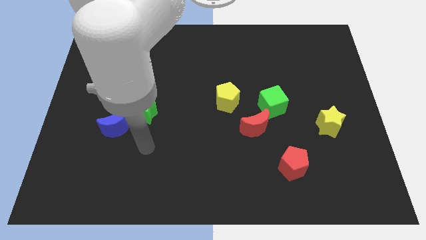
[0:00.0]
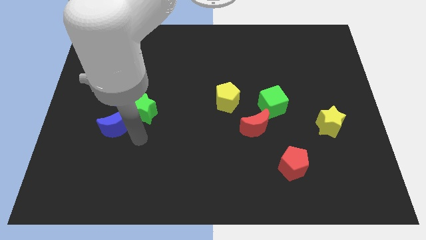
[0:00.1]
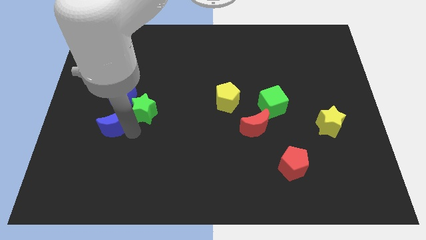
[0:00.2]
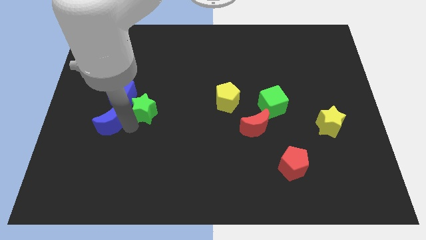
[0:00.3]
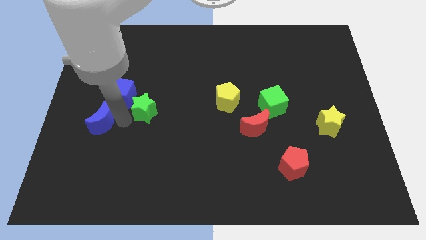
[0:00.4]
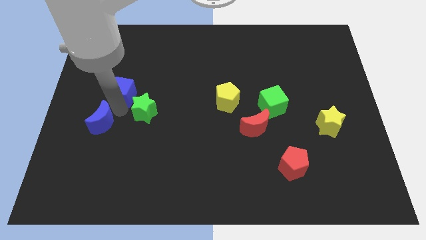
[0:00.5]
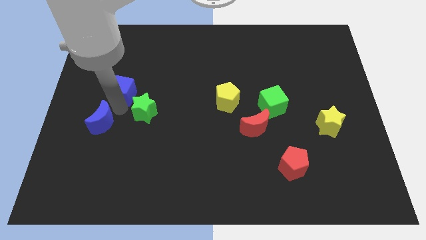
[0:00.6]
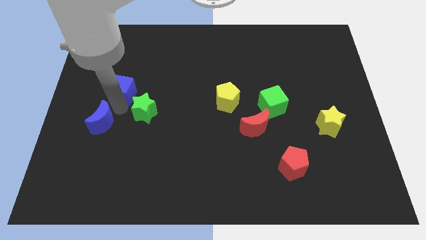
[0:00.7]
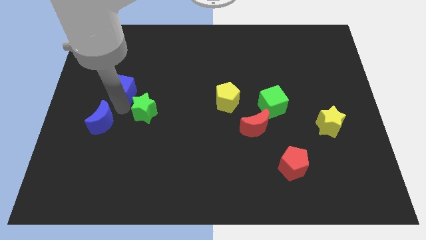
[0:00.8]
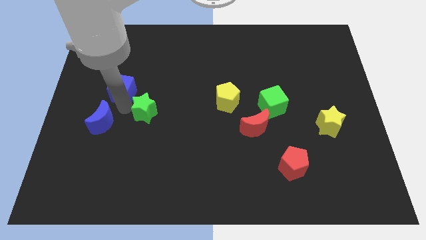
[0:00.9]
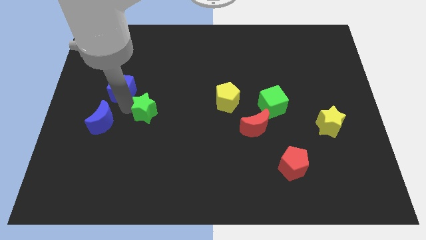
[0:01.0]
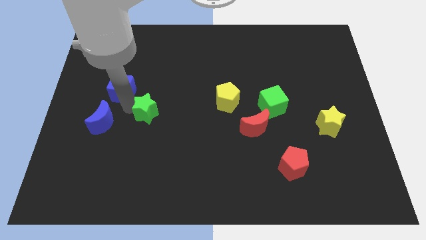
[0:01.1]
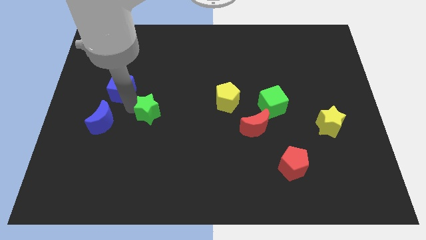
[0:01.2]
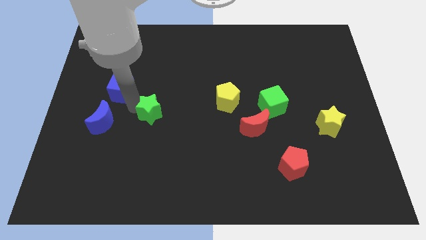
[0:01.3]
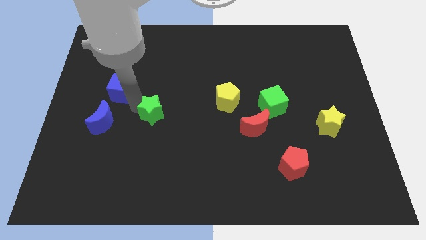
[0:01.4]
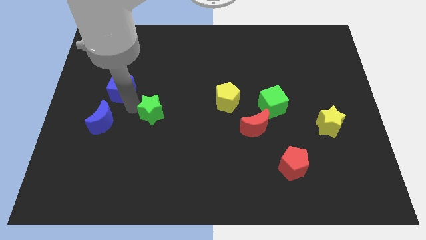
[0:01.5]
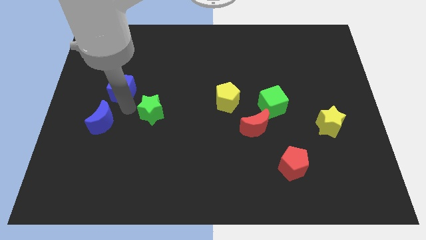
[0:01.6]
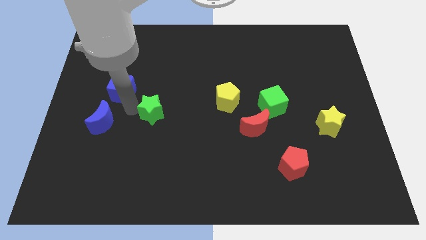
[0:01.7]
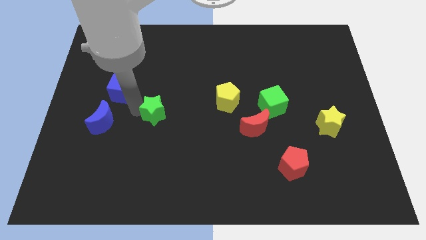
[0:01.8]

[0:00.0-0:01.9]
pull the green star apart from the blue moon and blue cube

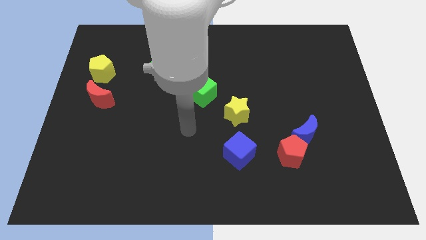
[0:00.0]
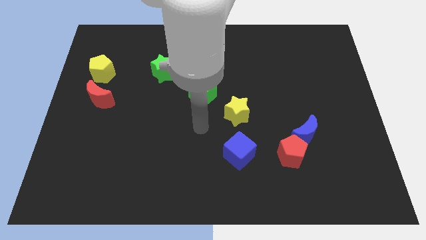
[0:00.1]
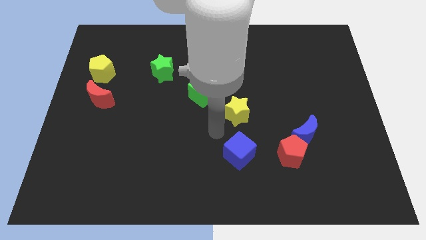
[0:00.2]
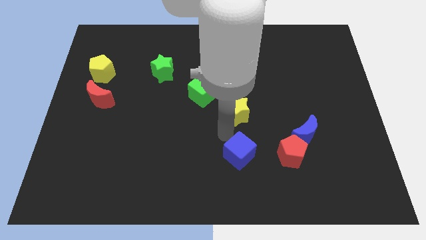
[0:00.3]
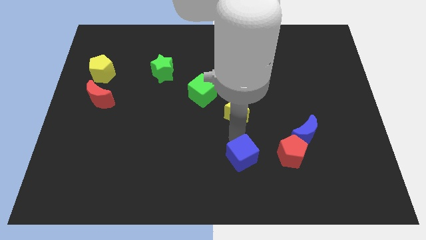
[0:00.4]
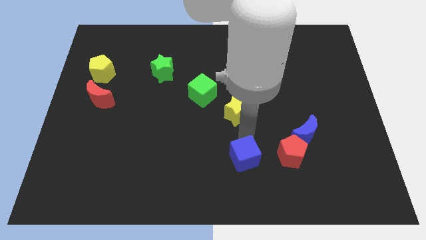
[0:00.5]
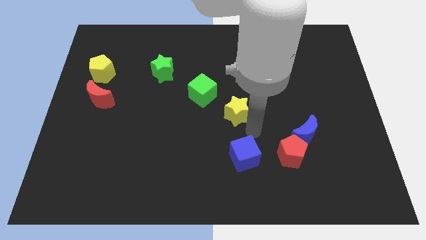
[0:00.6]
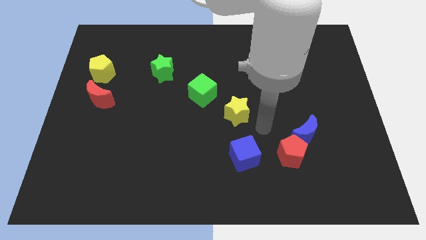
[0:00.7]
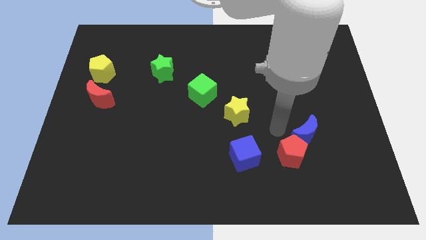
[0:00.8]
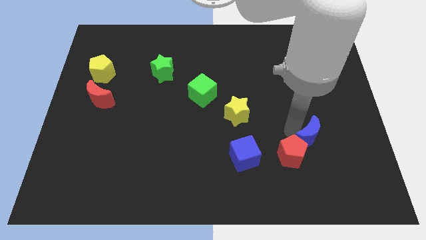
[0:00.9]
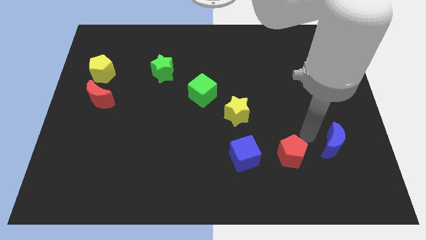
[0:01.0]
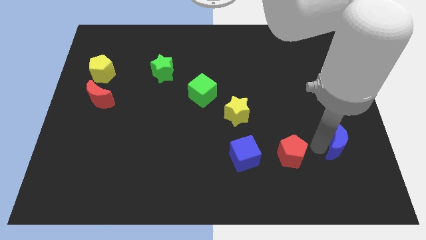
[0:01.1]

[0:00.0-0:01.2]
move the red pentagon away from the blue moon

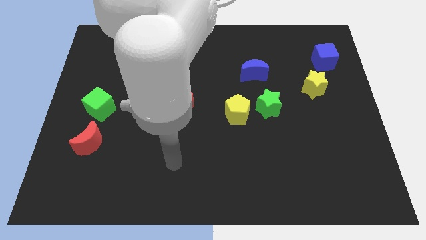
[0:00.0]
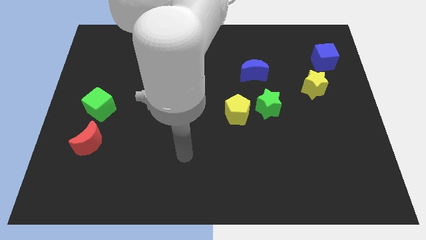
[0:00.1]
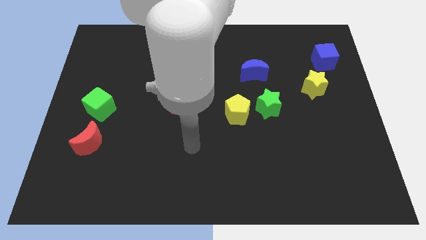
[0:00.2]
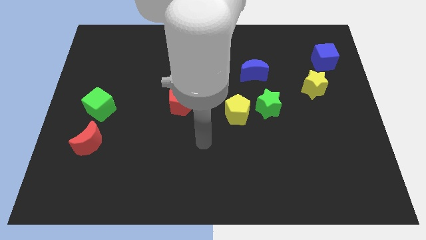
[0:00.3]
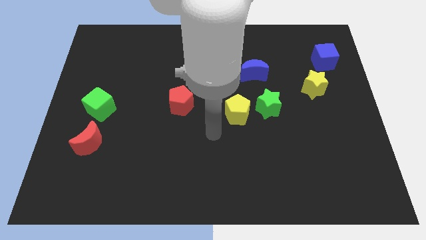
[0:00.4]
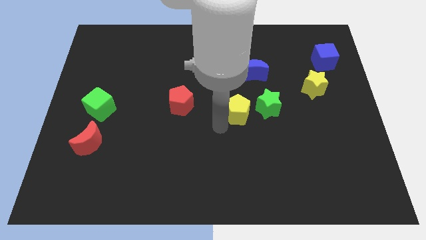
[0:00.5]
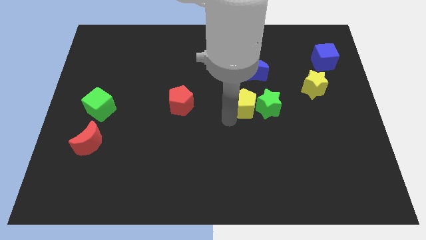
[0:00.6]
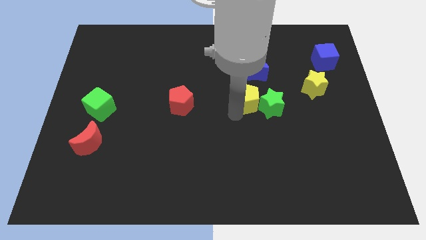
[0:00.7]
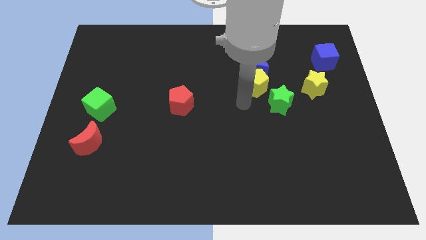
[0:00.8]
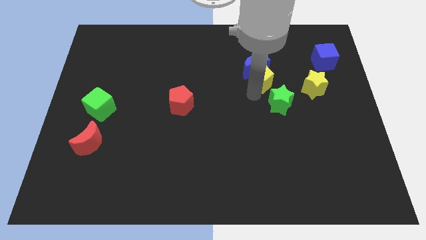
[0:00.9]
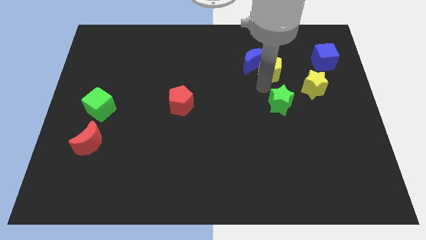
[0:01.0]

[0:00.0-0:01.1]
separate the green star from the yellow pentagon

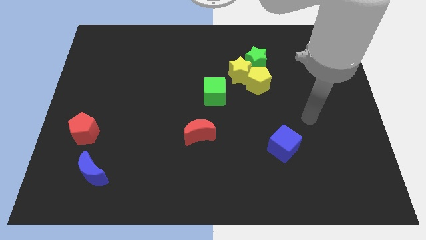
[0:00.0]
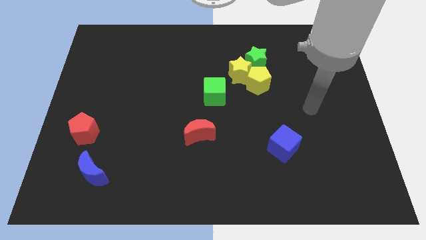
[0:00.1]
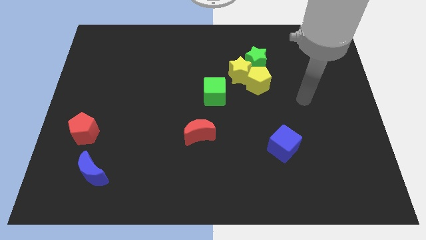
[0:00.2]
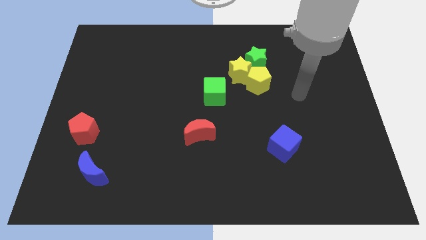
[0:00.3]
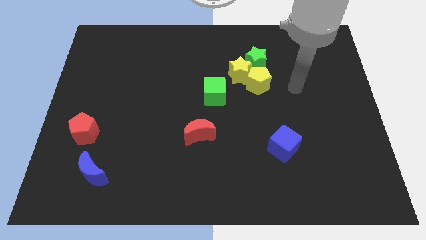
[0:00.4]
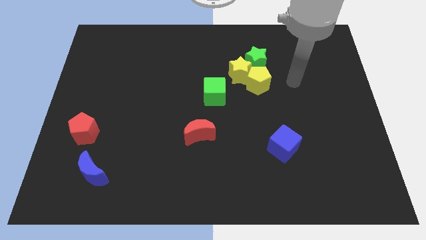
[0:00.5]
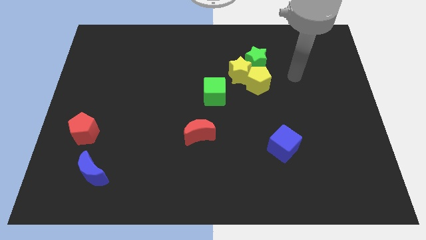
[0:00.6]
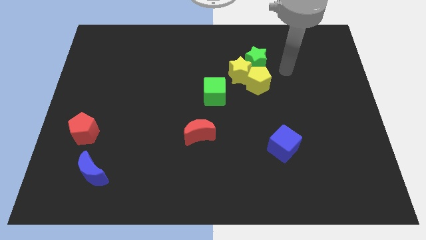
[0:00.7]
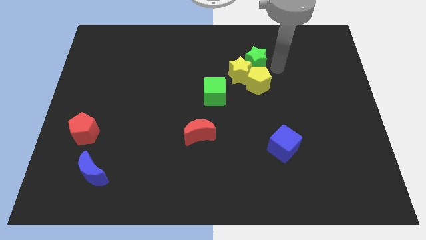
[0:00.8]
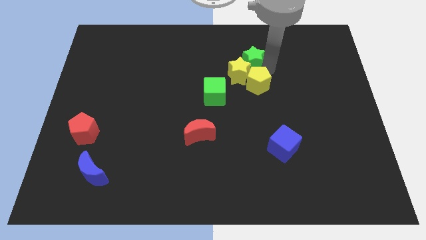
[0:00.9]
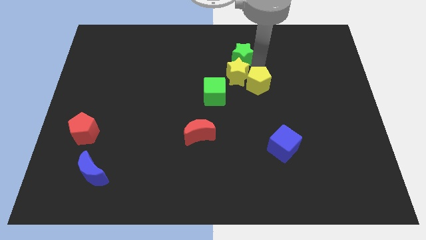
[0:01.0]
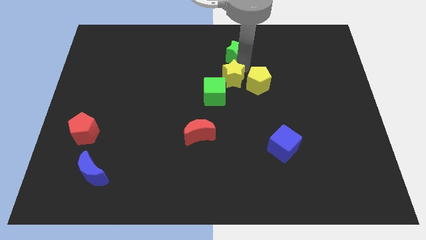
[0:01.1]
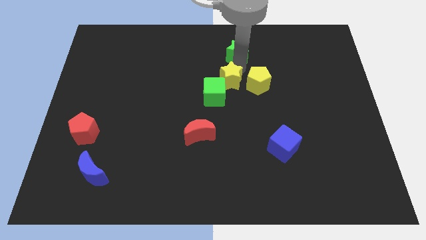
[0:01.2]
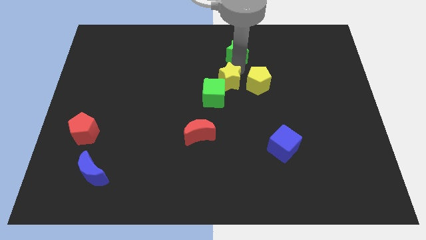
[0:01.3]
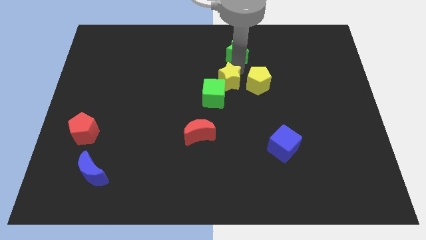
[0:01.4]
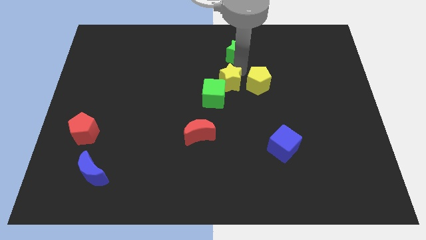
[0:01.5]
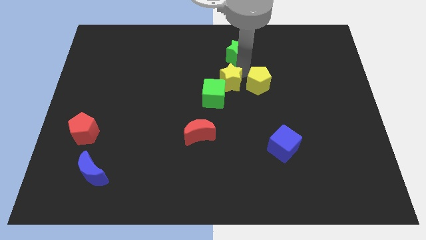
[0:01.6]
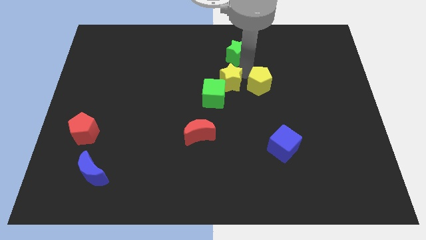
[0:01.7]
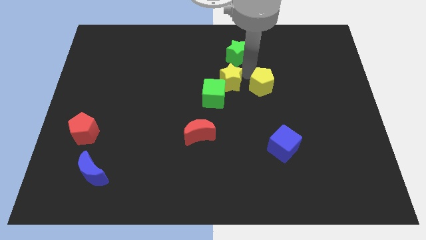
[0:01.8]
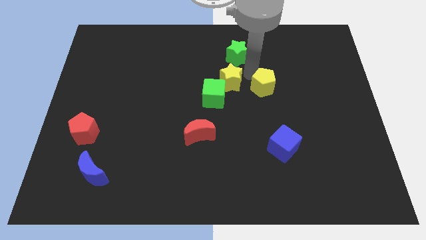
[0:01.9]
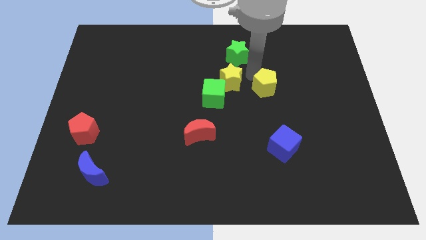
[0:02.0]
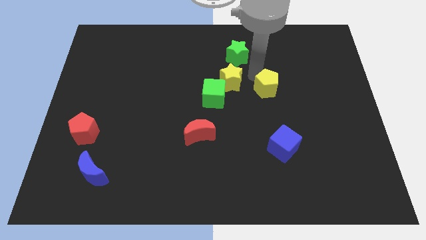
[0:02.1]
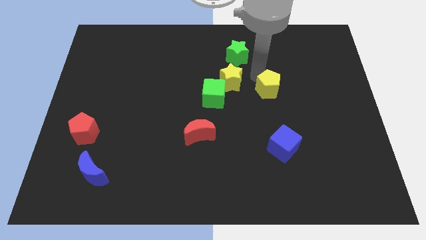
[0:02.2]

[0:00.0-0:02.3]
pull the yellow pentagon apart from the yellow star and green star

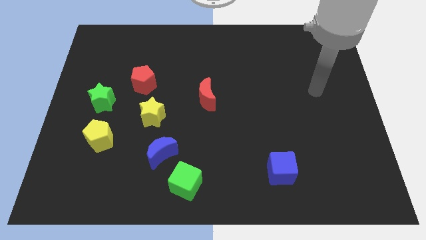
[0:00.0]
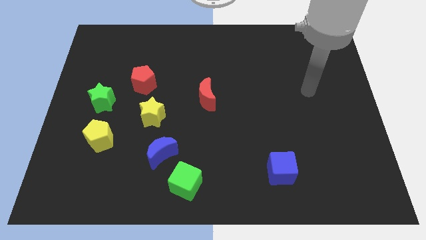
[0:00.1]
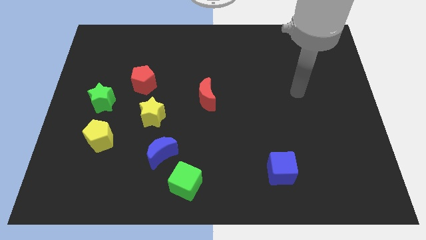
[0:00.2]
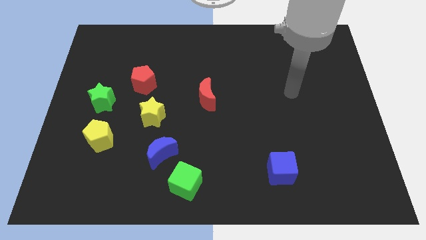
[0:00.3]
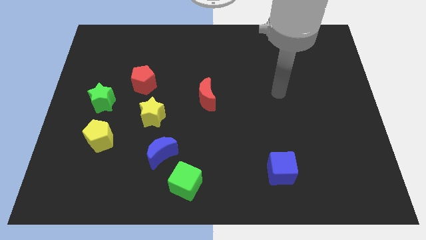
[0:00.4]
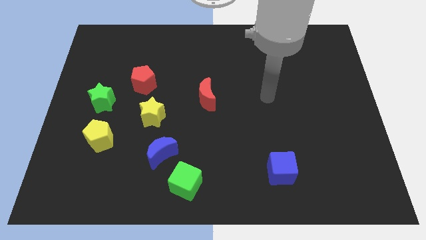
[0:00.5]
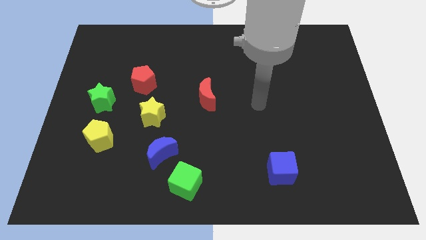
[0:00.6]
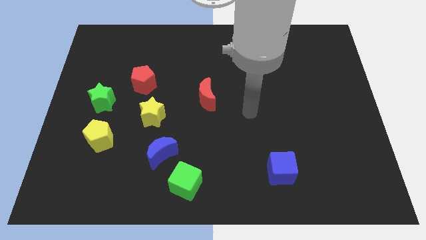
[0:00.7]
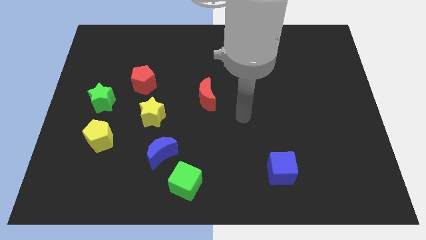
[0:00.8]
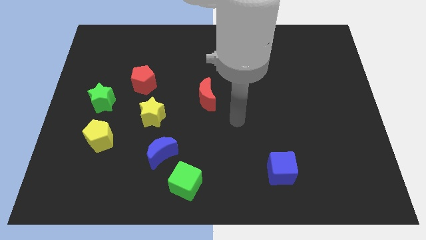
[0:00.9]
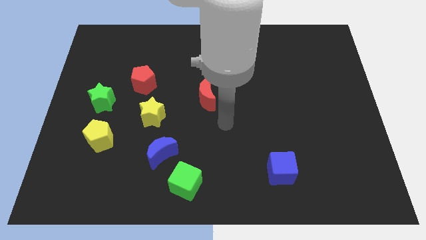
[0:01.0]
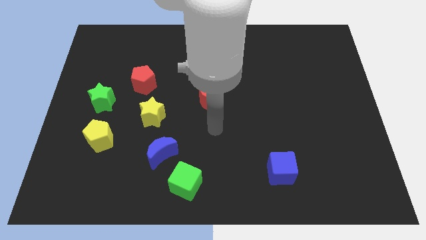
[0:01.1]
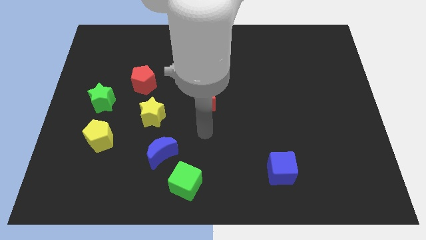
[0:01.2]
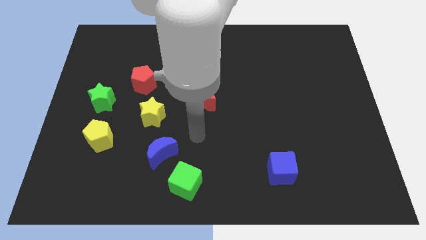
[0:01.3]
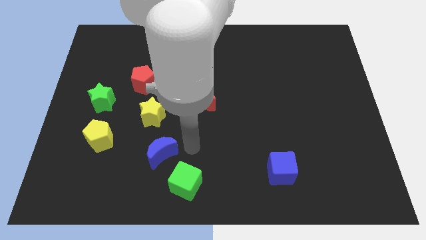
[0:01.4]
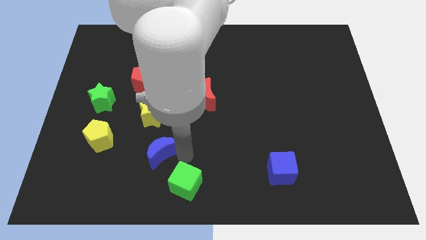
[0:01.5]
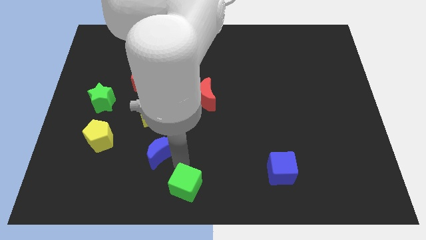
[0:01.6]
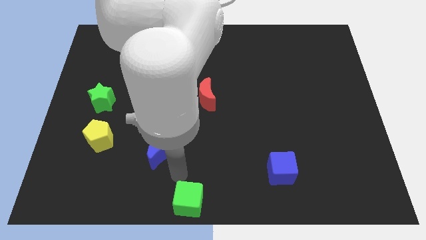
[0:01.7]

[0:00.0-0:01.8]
separate the blue moon from the green cube

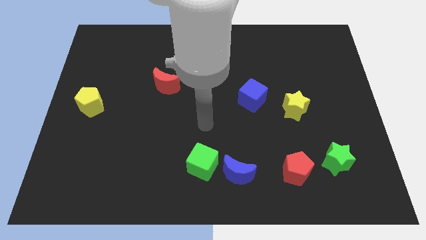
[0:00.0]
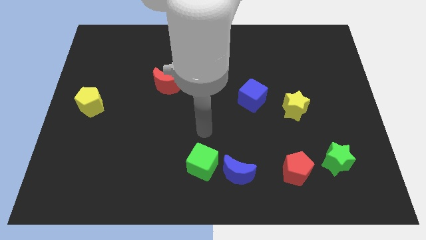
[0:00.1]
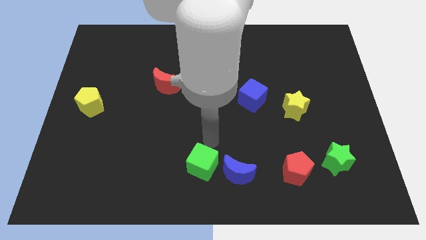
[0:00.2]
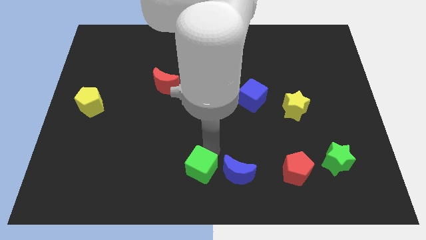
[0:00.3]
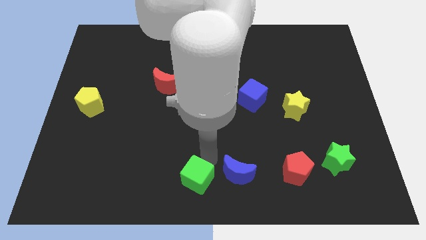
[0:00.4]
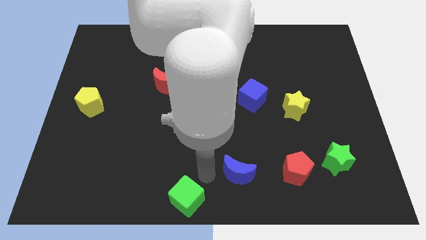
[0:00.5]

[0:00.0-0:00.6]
move the blue moon away from the green cube

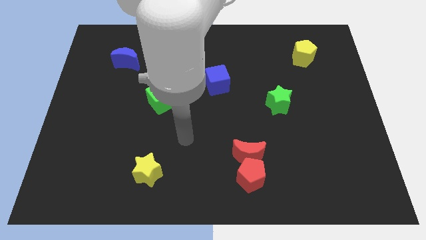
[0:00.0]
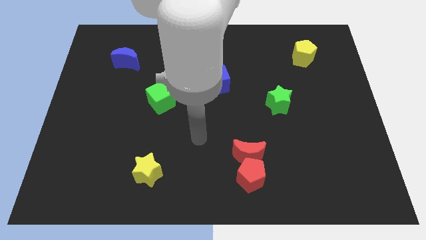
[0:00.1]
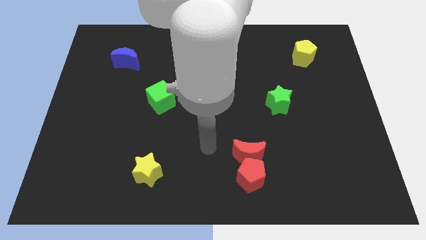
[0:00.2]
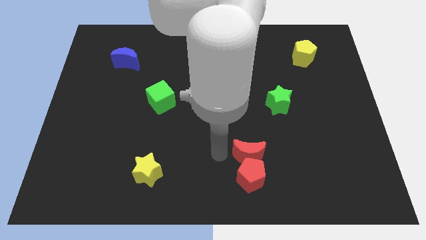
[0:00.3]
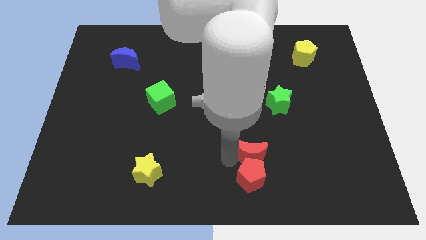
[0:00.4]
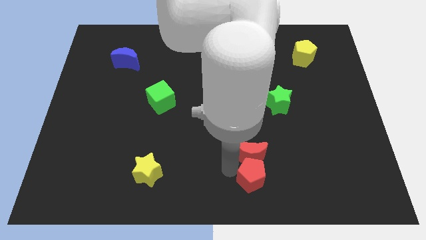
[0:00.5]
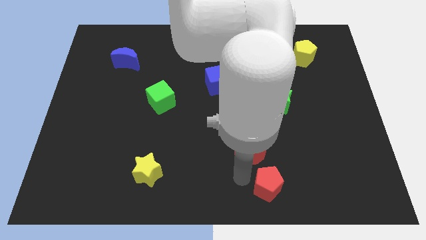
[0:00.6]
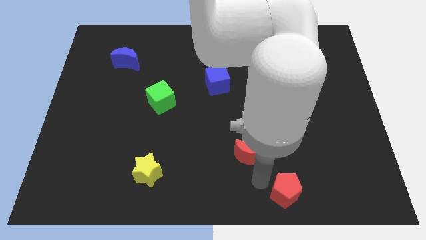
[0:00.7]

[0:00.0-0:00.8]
pull the red moon apart from the red pentagon
